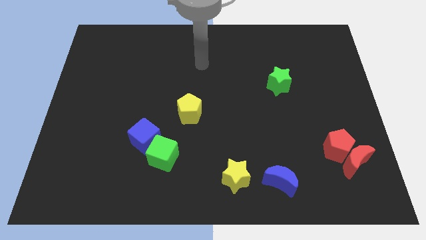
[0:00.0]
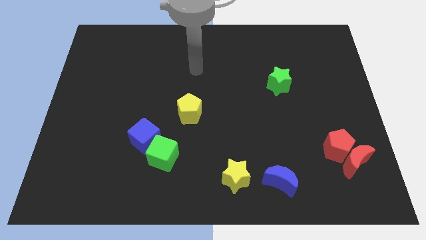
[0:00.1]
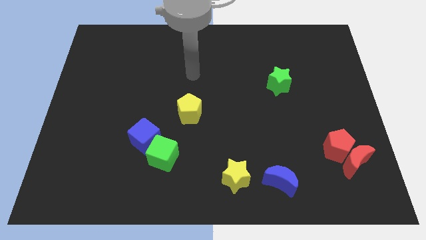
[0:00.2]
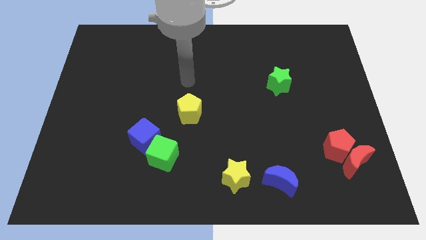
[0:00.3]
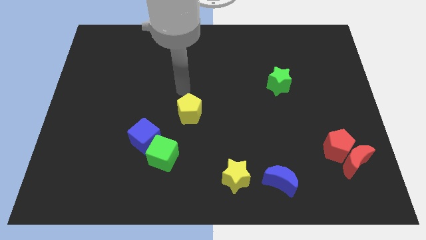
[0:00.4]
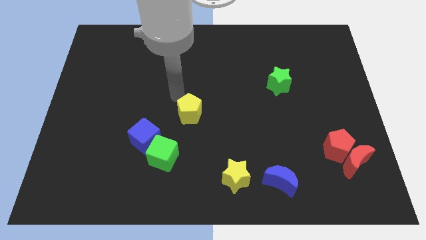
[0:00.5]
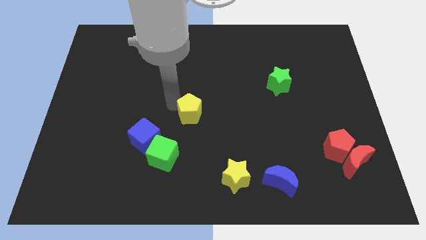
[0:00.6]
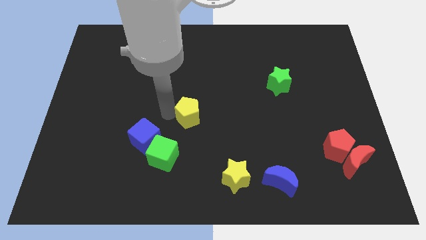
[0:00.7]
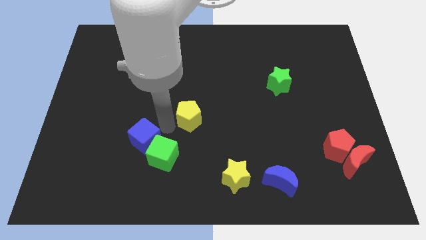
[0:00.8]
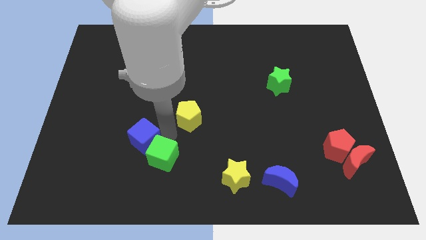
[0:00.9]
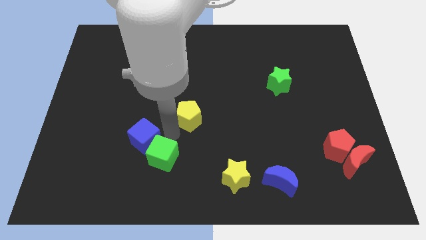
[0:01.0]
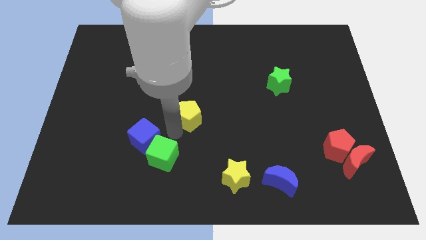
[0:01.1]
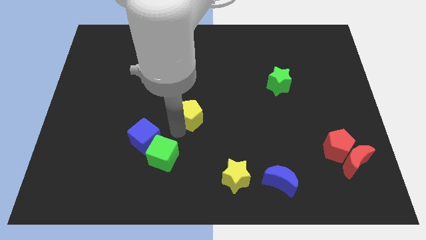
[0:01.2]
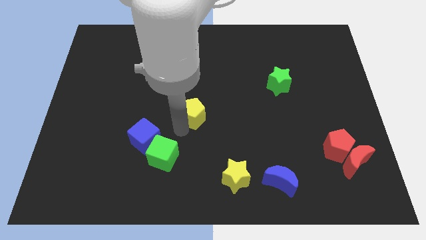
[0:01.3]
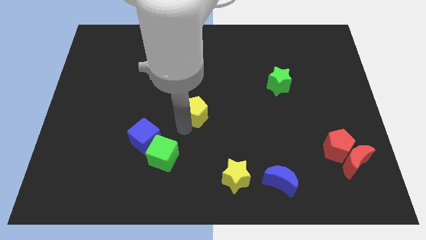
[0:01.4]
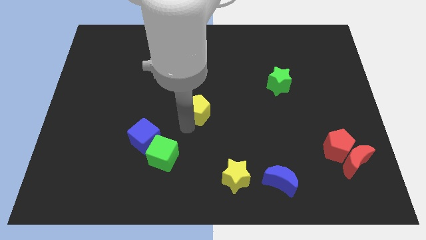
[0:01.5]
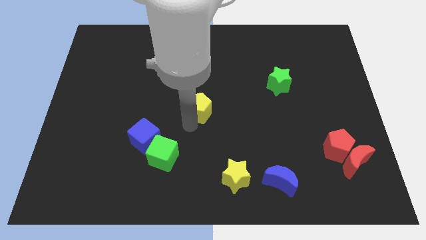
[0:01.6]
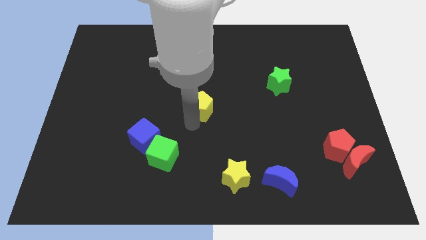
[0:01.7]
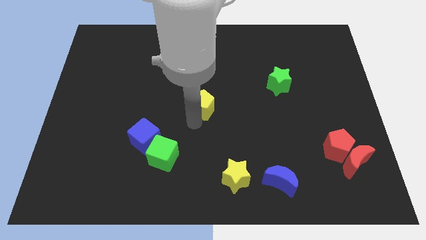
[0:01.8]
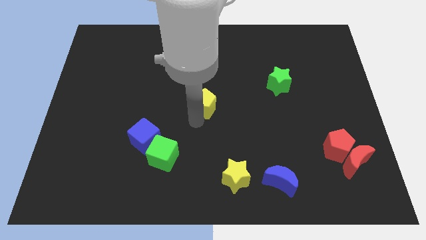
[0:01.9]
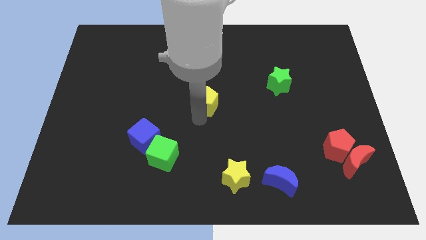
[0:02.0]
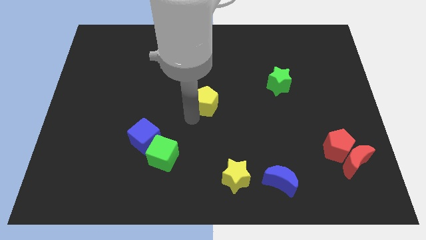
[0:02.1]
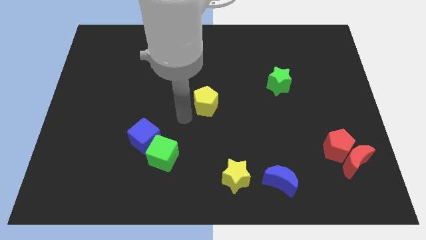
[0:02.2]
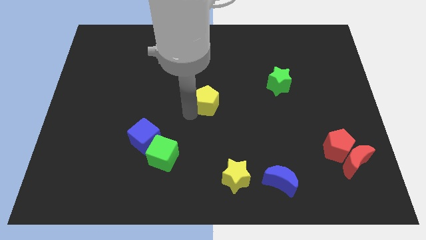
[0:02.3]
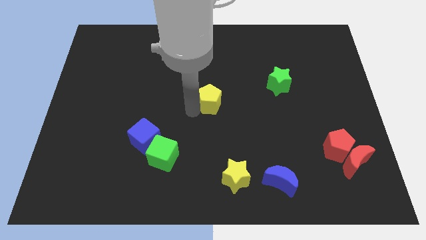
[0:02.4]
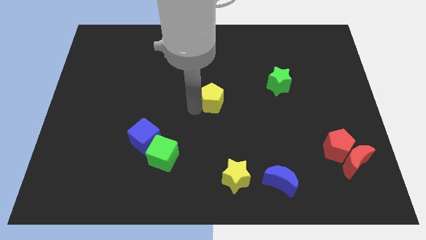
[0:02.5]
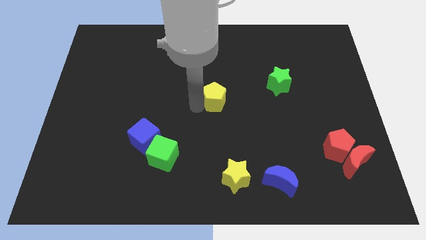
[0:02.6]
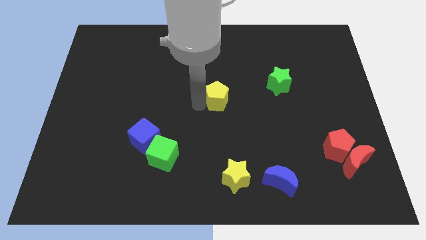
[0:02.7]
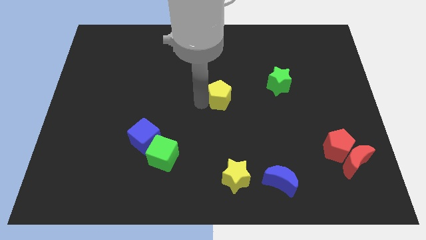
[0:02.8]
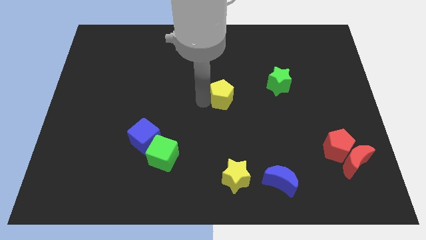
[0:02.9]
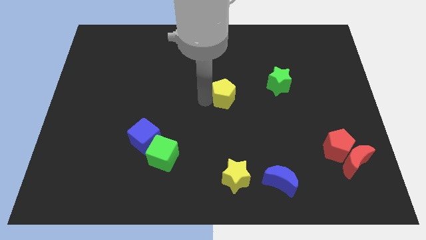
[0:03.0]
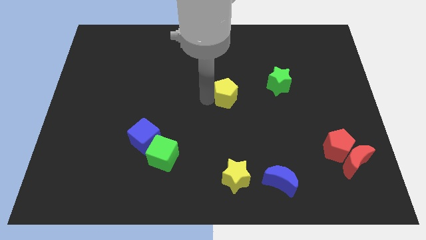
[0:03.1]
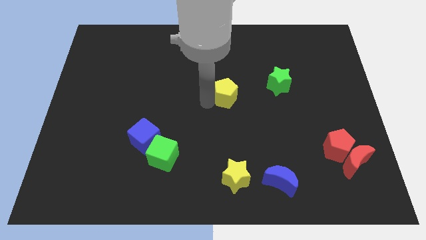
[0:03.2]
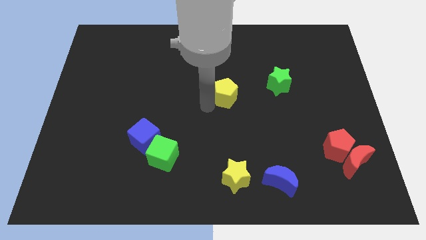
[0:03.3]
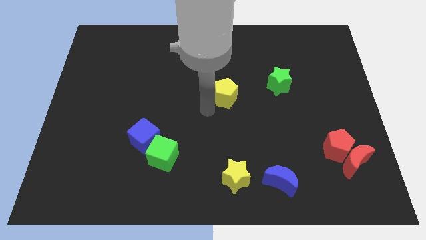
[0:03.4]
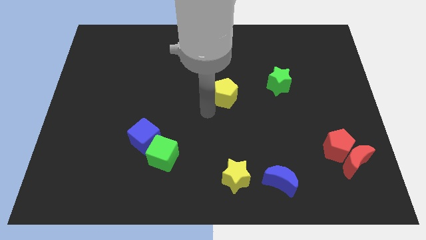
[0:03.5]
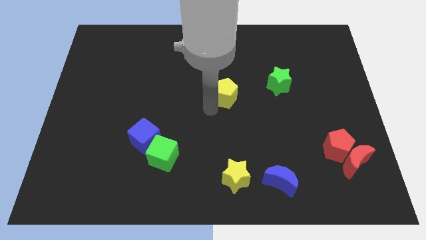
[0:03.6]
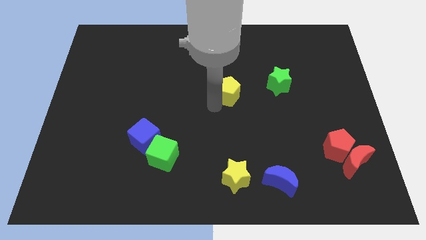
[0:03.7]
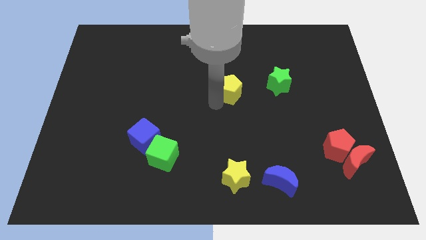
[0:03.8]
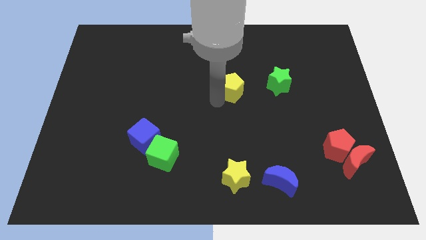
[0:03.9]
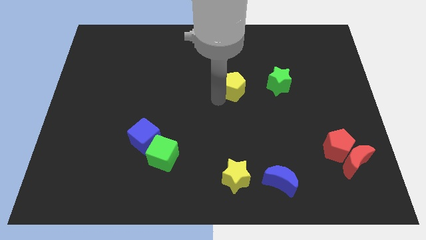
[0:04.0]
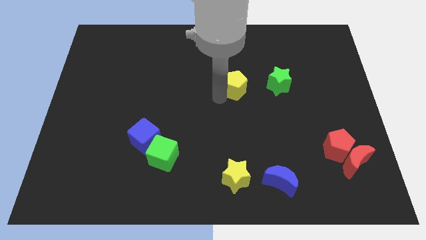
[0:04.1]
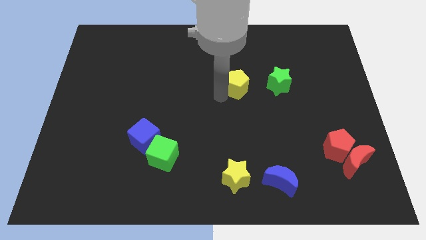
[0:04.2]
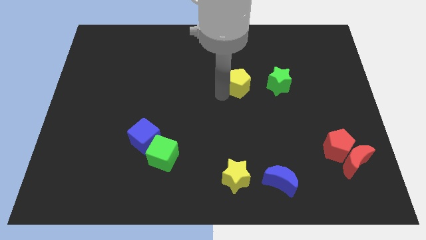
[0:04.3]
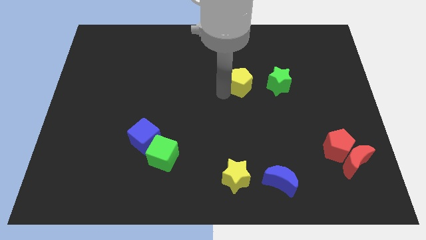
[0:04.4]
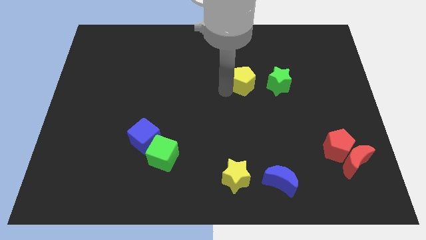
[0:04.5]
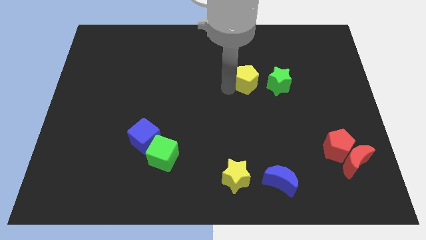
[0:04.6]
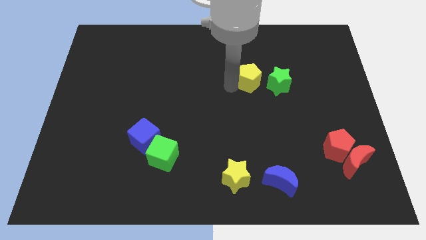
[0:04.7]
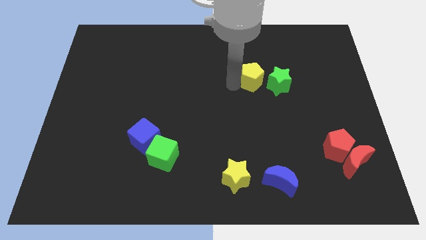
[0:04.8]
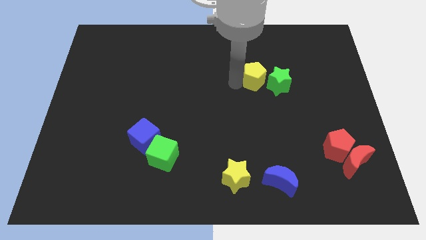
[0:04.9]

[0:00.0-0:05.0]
move the yellow pentagon towards the green star

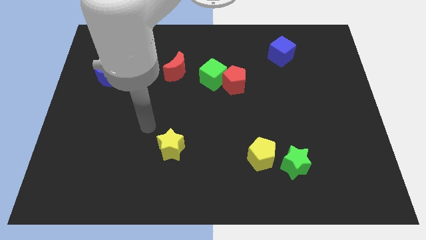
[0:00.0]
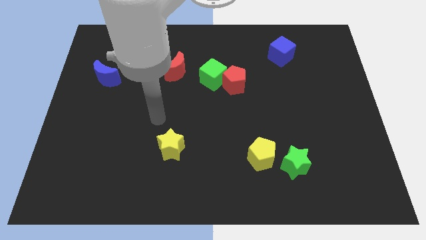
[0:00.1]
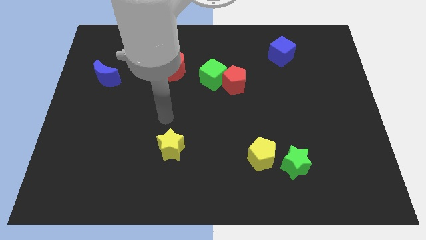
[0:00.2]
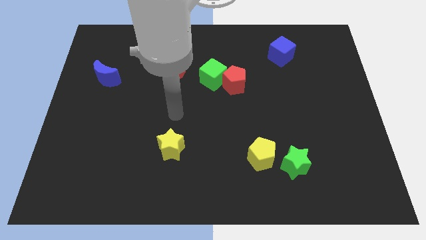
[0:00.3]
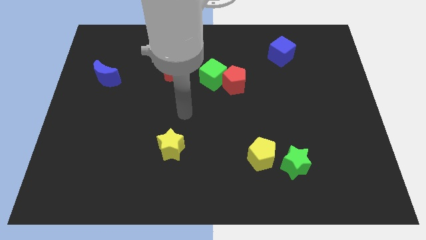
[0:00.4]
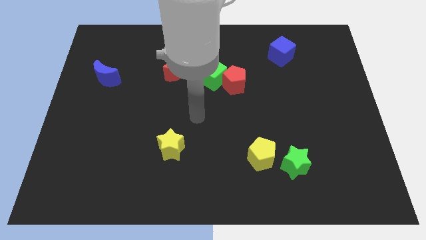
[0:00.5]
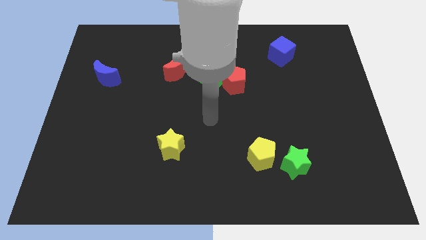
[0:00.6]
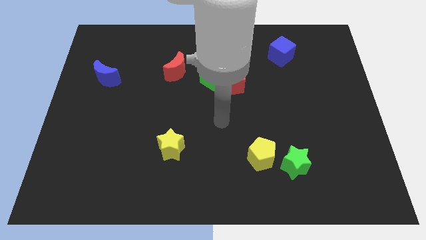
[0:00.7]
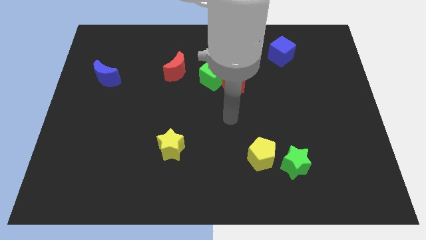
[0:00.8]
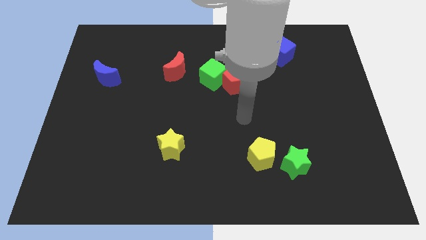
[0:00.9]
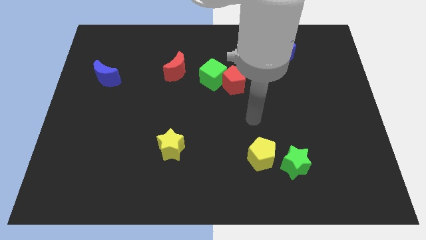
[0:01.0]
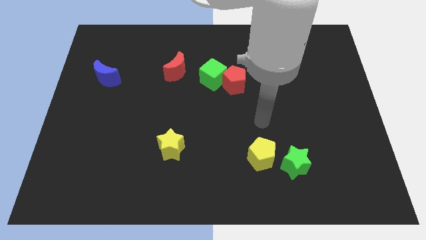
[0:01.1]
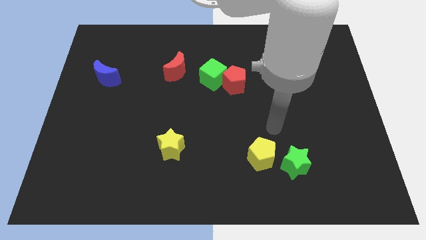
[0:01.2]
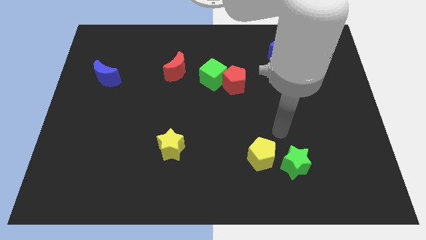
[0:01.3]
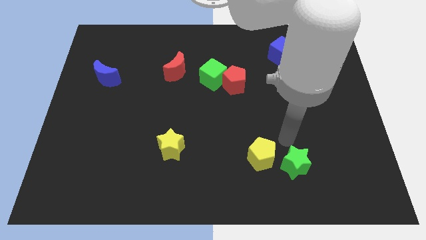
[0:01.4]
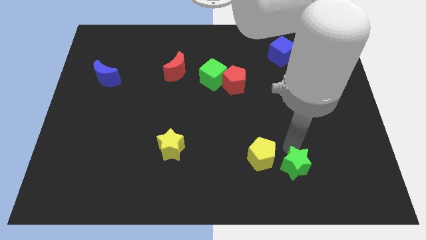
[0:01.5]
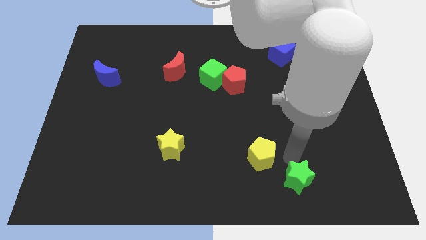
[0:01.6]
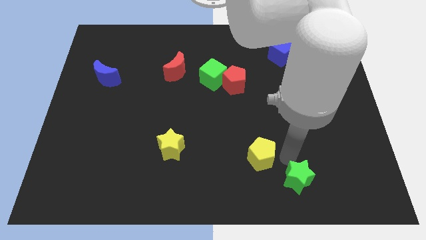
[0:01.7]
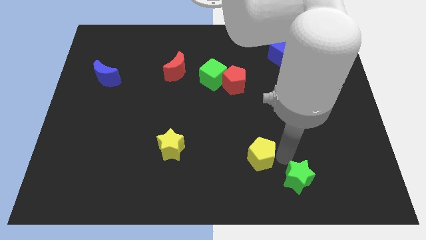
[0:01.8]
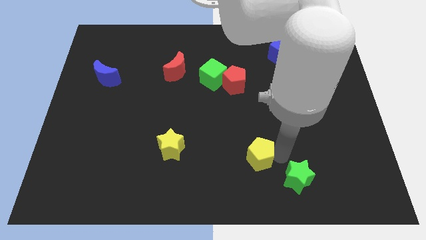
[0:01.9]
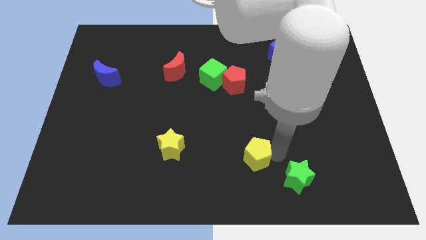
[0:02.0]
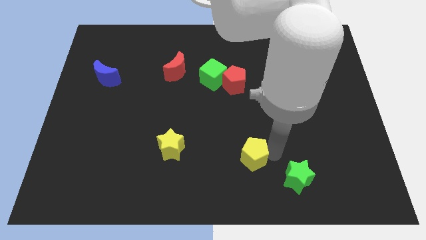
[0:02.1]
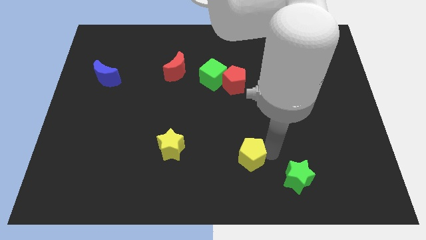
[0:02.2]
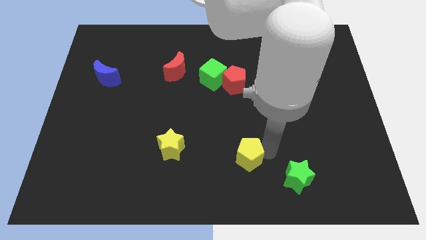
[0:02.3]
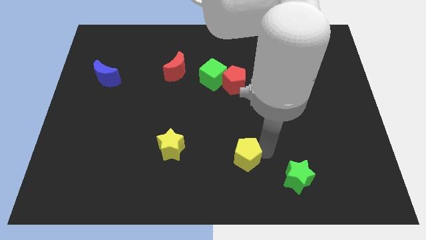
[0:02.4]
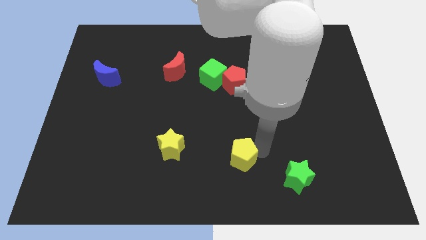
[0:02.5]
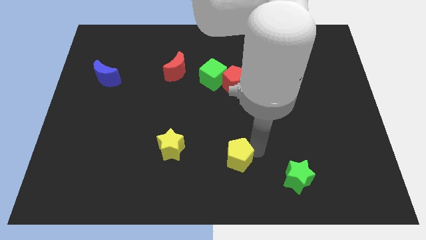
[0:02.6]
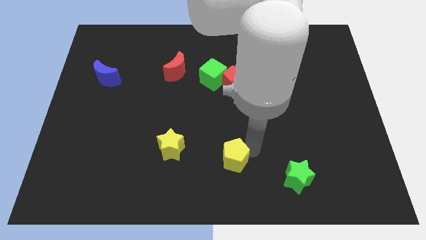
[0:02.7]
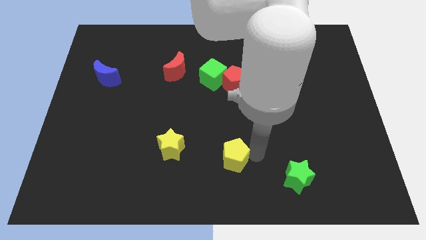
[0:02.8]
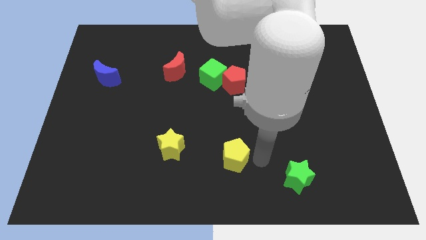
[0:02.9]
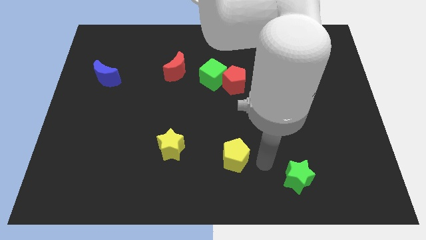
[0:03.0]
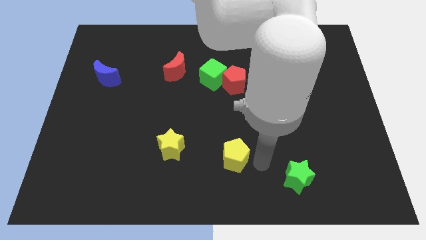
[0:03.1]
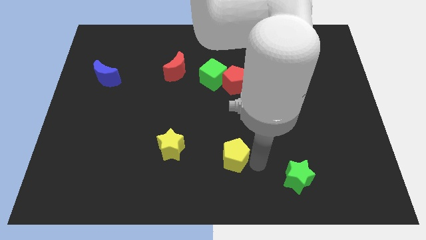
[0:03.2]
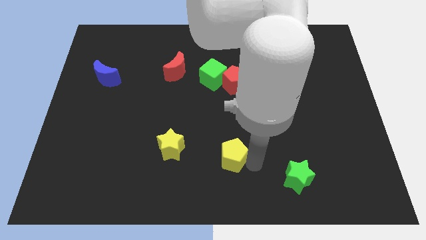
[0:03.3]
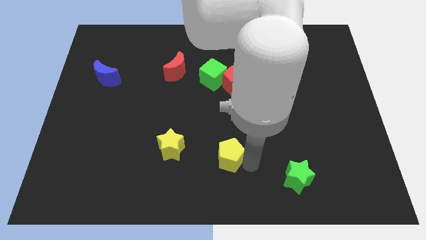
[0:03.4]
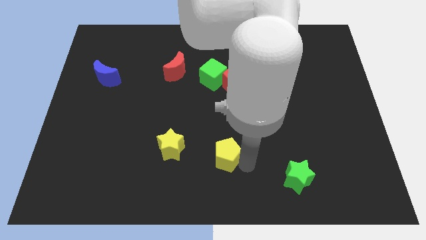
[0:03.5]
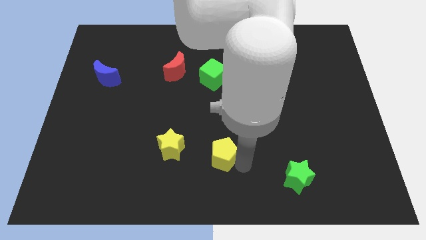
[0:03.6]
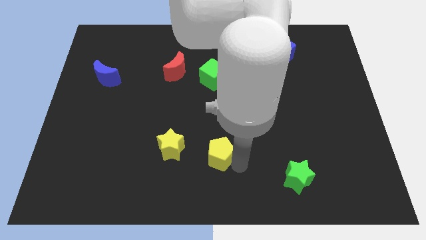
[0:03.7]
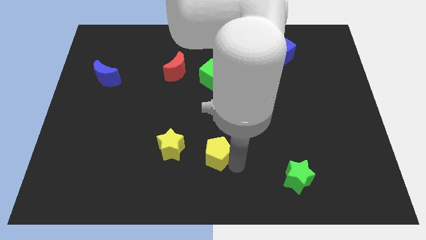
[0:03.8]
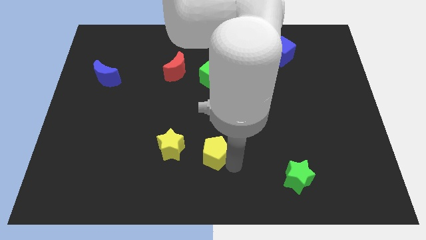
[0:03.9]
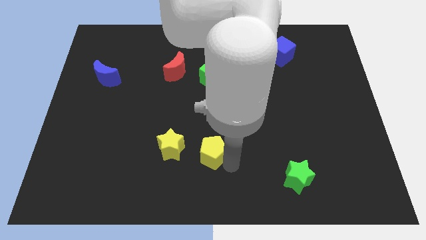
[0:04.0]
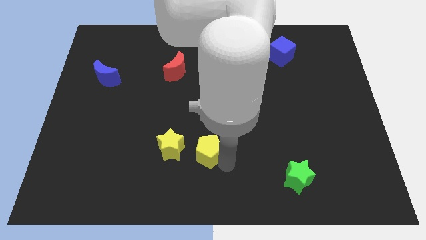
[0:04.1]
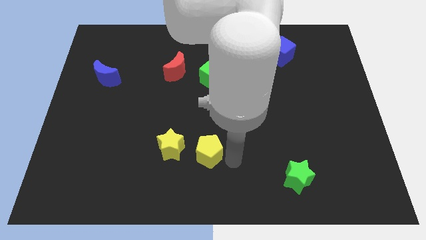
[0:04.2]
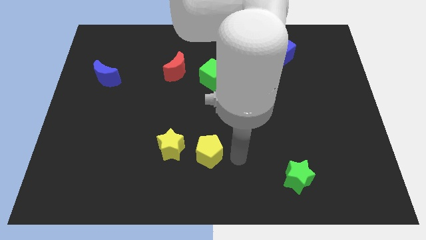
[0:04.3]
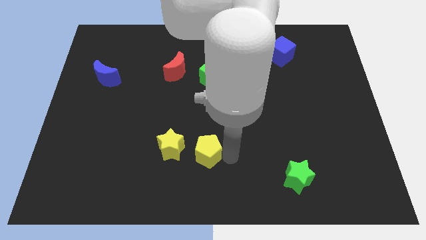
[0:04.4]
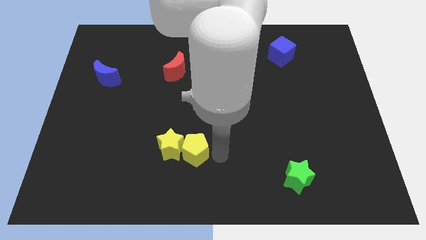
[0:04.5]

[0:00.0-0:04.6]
move the yellow pentagon to the yellow star
